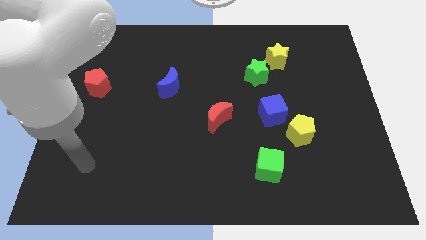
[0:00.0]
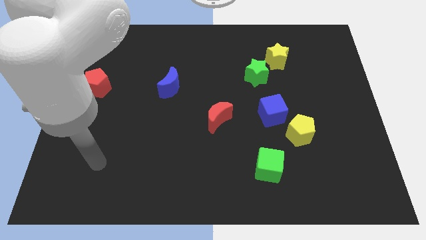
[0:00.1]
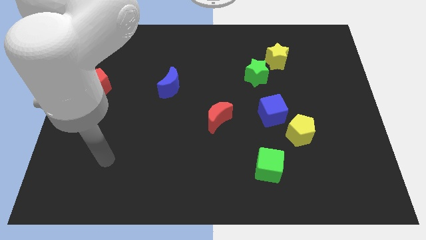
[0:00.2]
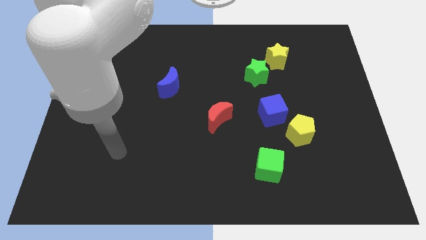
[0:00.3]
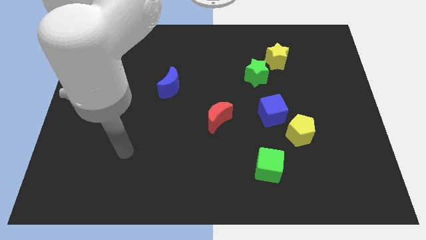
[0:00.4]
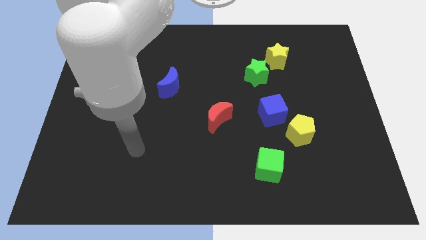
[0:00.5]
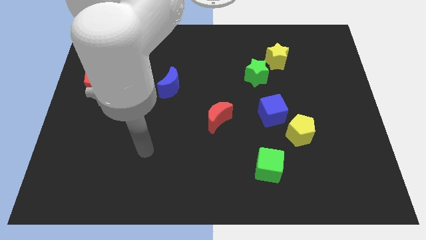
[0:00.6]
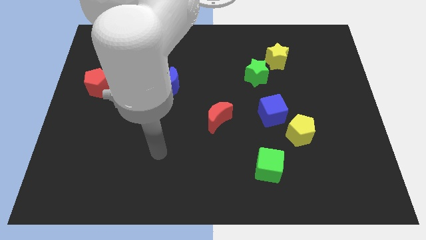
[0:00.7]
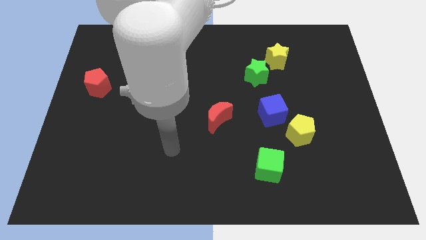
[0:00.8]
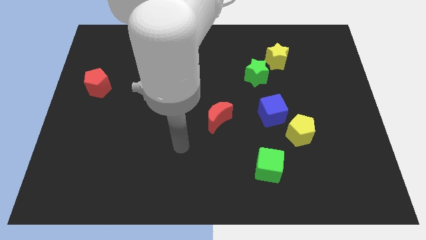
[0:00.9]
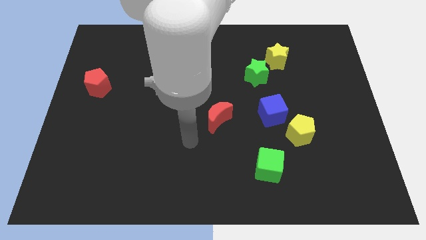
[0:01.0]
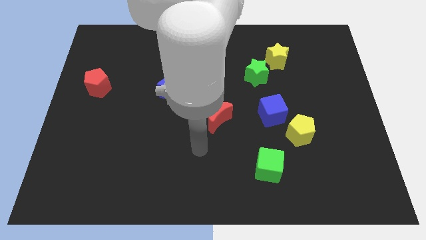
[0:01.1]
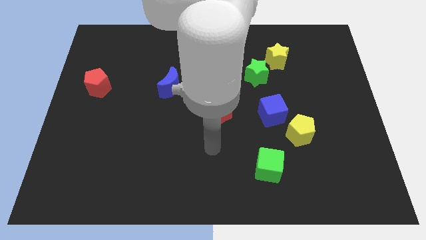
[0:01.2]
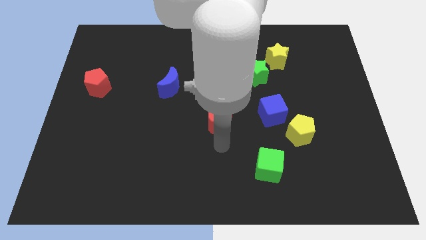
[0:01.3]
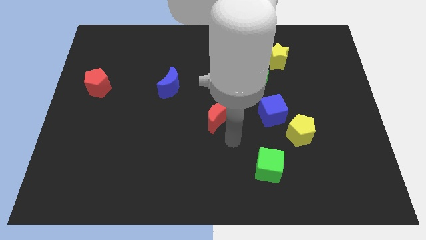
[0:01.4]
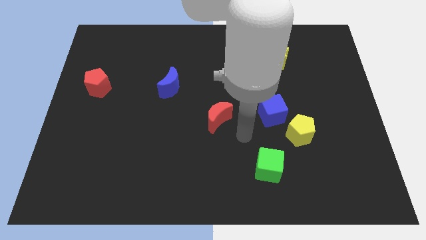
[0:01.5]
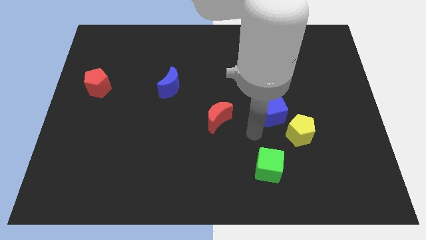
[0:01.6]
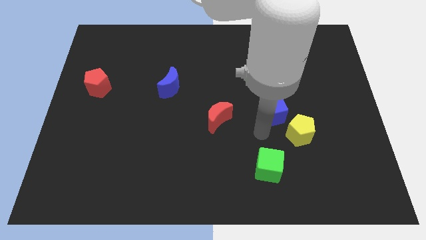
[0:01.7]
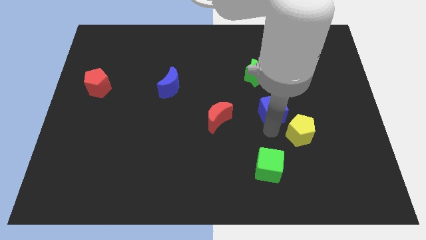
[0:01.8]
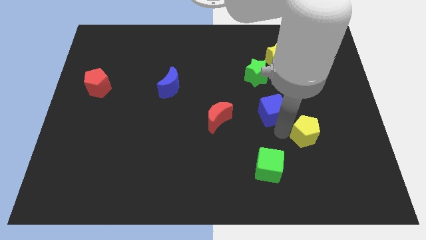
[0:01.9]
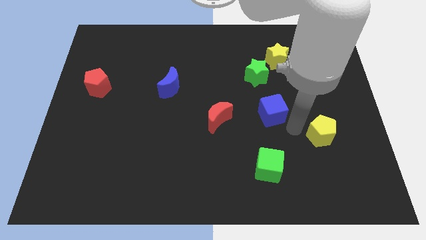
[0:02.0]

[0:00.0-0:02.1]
move the blue cube away from the yellow pentagon

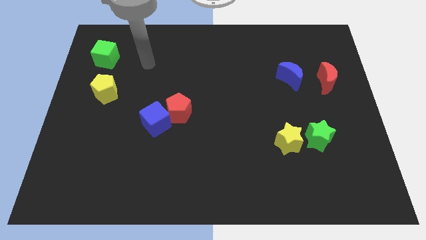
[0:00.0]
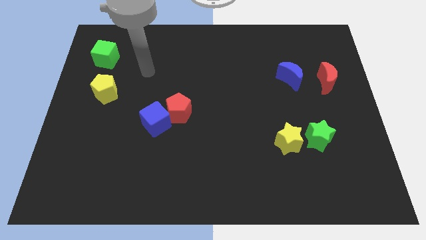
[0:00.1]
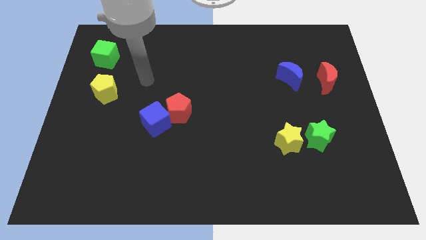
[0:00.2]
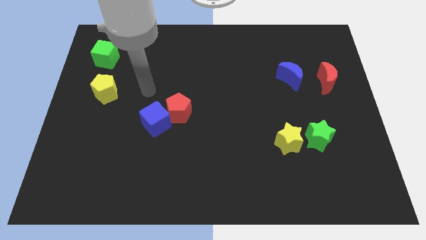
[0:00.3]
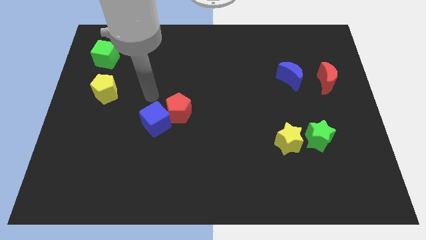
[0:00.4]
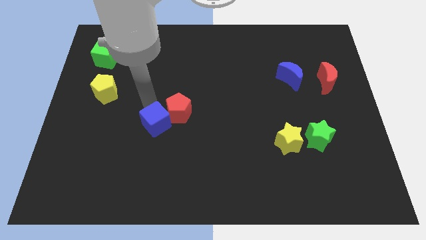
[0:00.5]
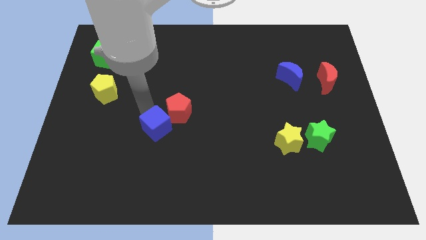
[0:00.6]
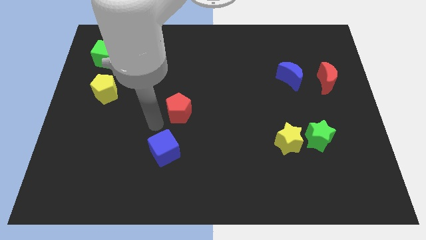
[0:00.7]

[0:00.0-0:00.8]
separate the red pentagon from the blue cube

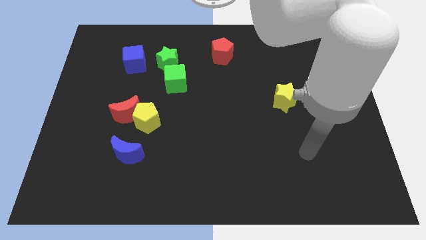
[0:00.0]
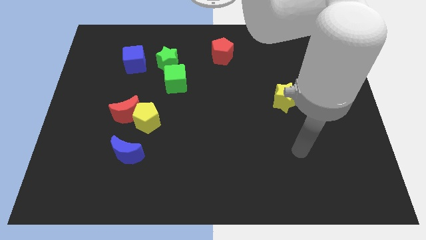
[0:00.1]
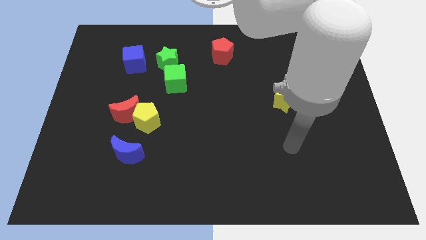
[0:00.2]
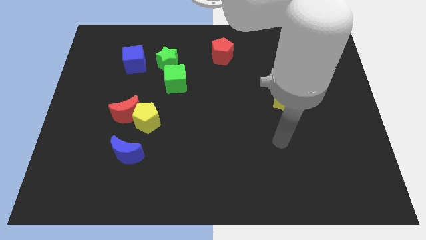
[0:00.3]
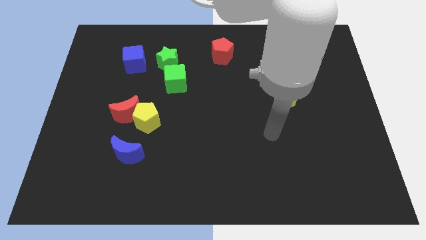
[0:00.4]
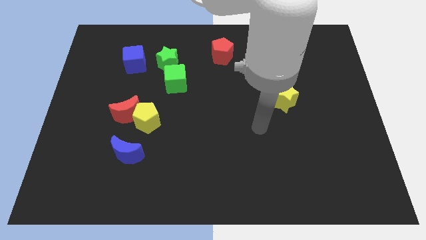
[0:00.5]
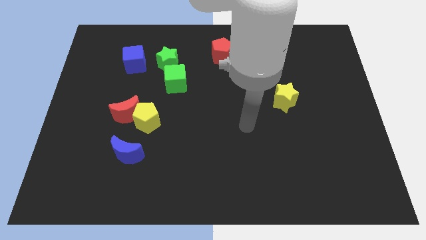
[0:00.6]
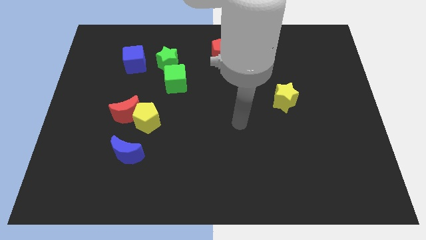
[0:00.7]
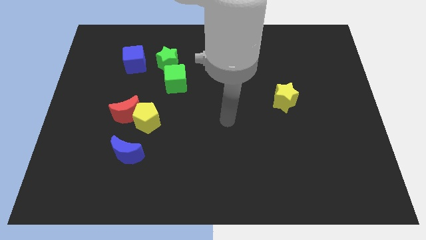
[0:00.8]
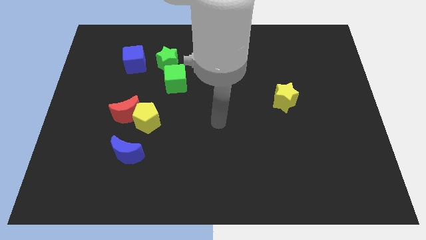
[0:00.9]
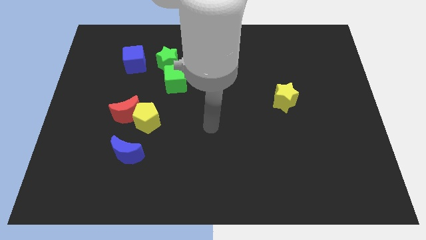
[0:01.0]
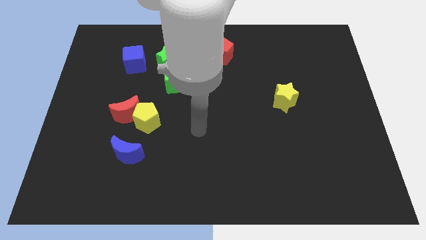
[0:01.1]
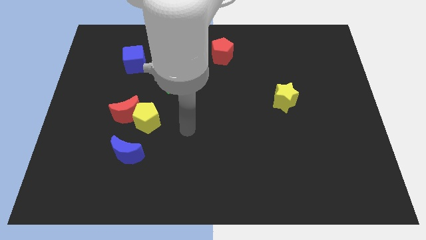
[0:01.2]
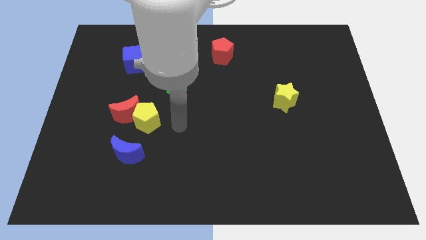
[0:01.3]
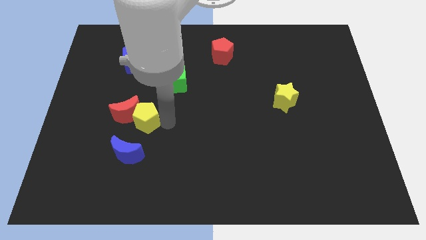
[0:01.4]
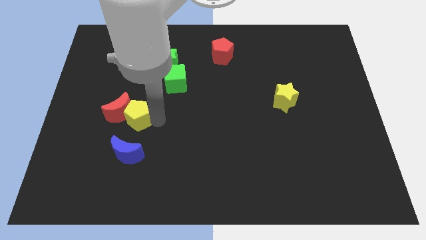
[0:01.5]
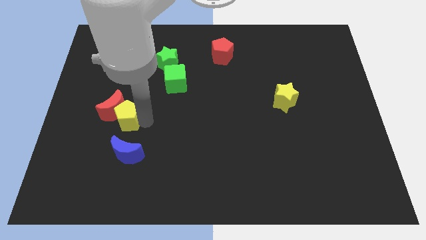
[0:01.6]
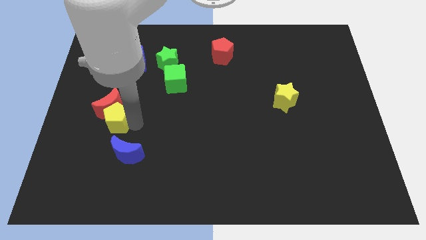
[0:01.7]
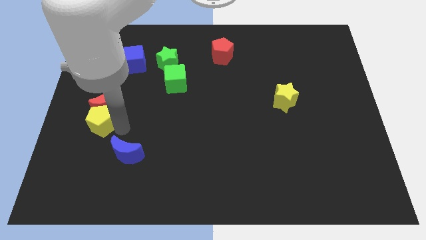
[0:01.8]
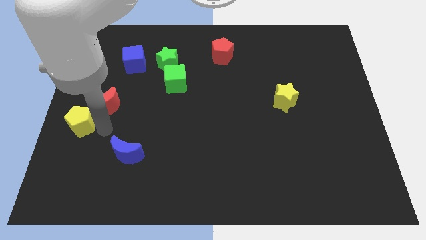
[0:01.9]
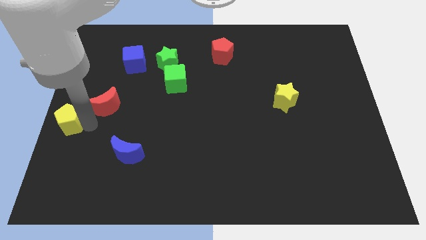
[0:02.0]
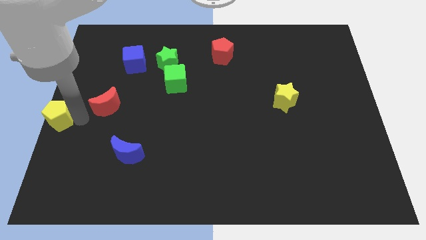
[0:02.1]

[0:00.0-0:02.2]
pull the red moon apart from the yellow pentagon

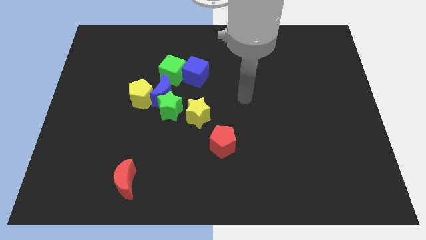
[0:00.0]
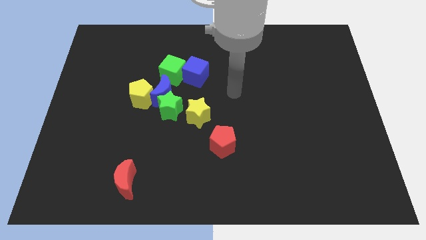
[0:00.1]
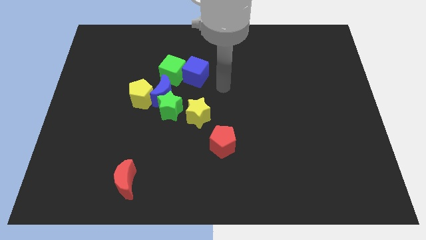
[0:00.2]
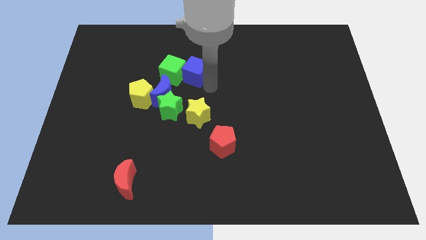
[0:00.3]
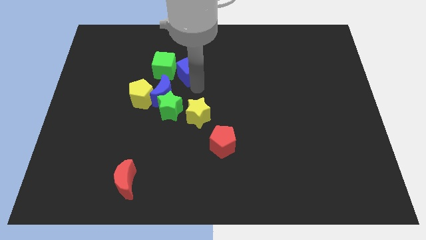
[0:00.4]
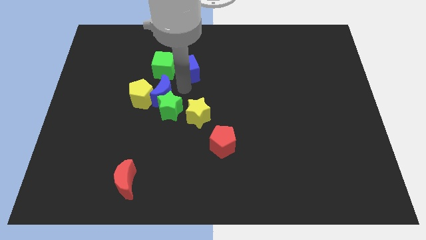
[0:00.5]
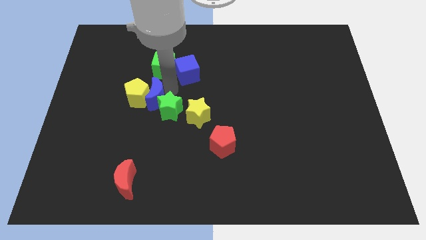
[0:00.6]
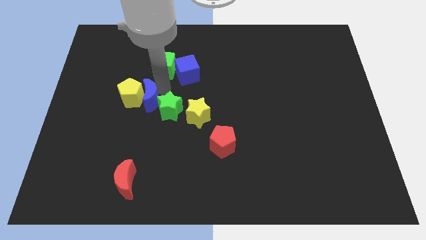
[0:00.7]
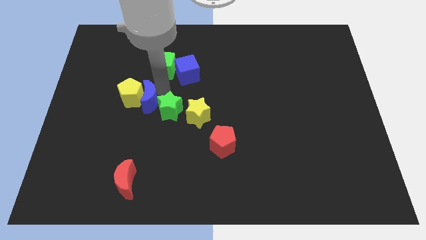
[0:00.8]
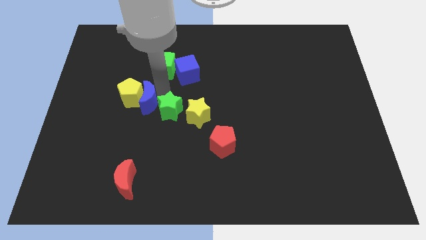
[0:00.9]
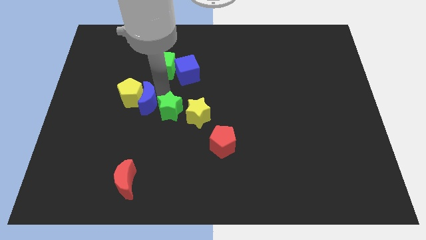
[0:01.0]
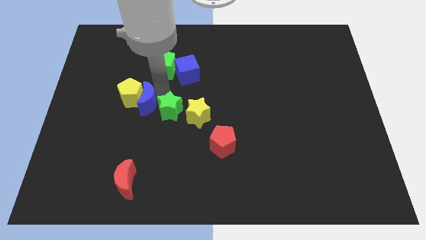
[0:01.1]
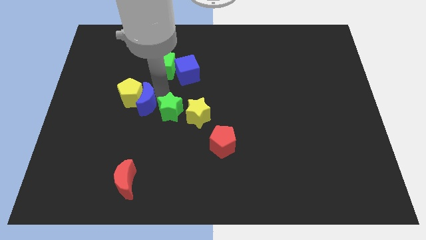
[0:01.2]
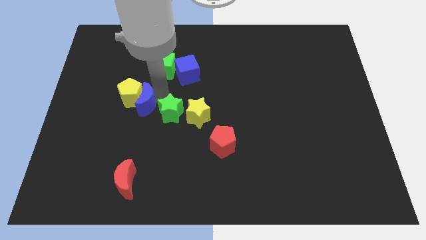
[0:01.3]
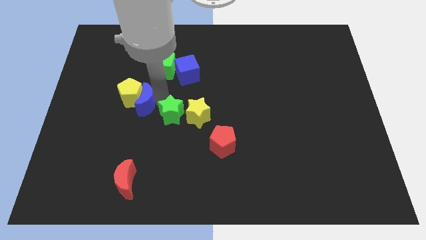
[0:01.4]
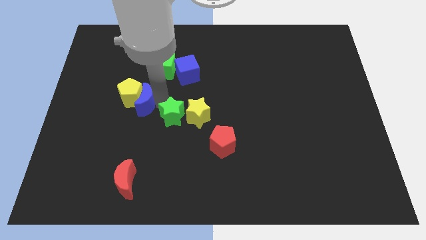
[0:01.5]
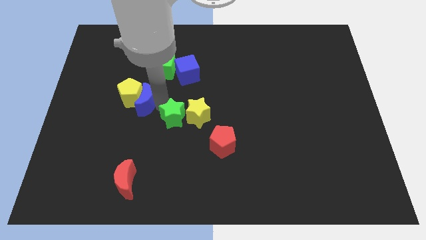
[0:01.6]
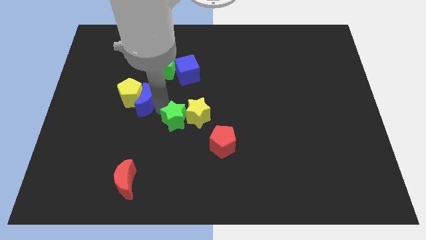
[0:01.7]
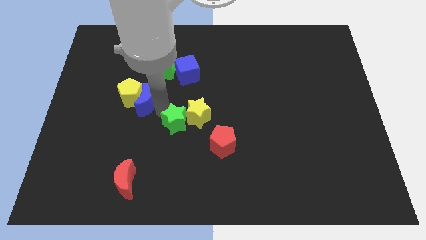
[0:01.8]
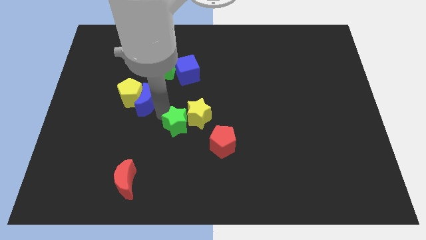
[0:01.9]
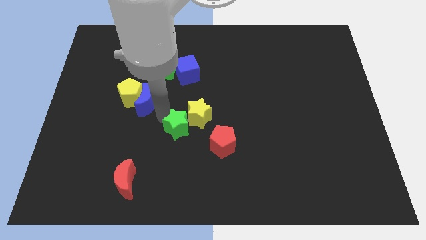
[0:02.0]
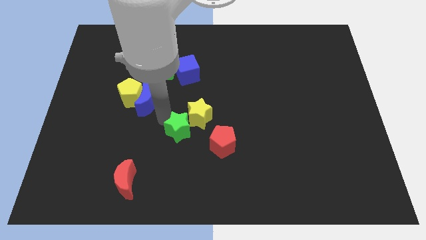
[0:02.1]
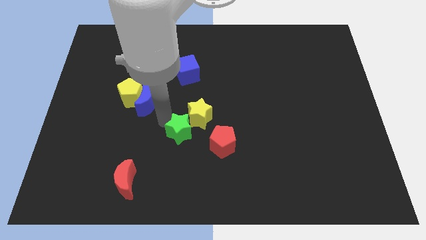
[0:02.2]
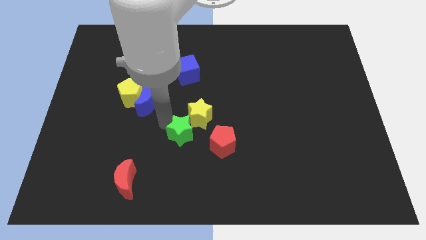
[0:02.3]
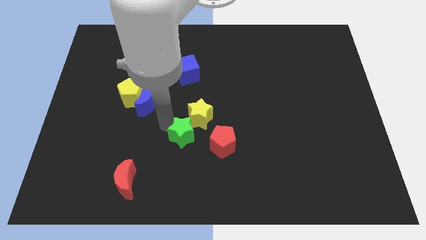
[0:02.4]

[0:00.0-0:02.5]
pull the green star apart from the blue moon, yellow star, and yellow pentagon

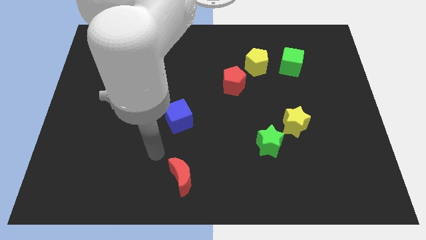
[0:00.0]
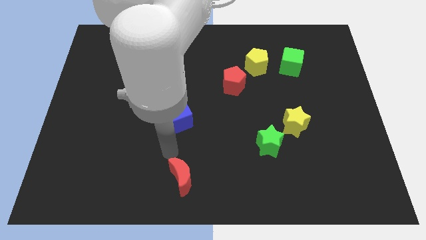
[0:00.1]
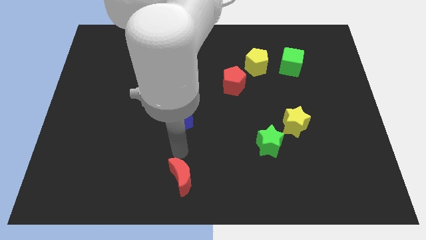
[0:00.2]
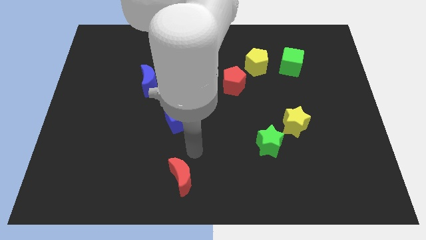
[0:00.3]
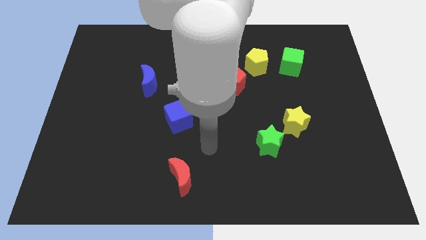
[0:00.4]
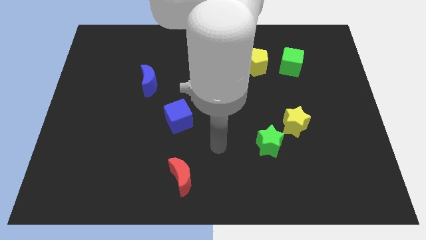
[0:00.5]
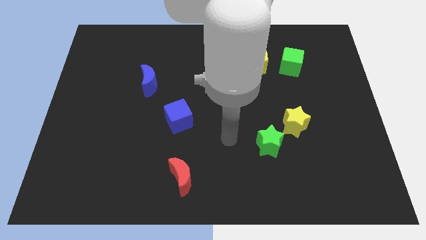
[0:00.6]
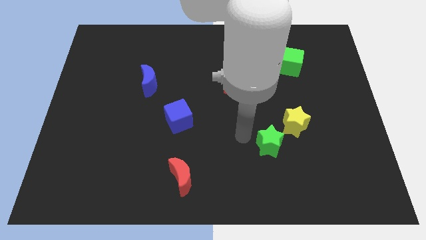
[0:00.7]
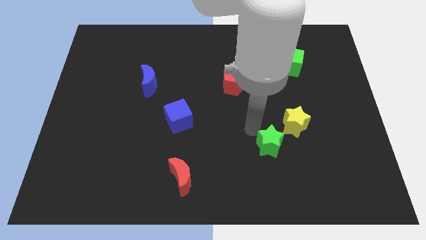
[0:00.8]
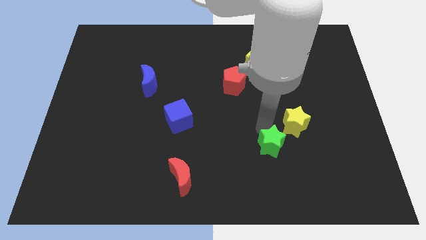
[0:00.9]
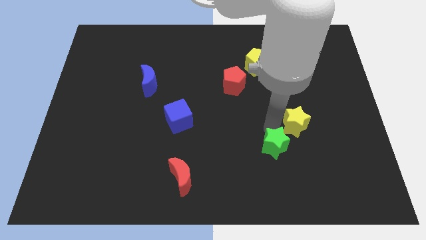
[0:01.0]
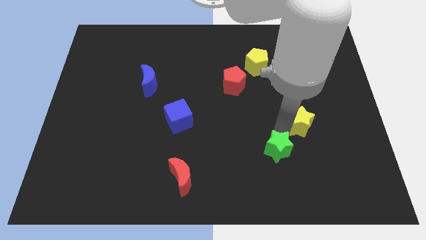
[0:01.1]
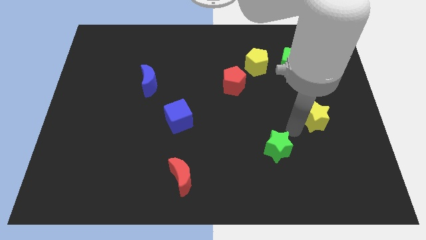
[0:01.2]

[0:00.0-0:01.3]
separate the green star from the yellow star

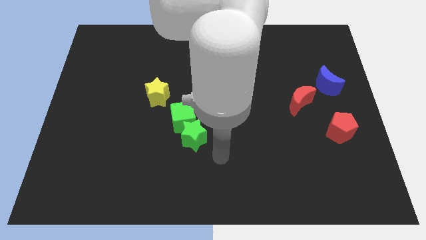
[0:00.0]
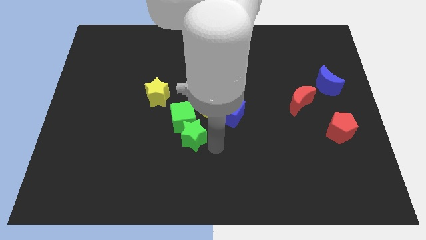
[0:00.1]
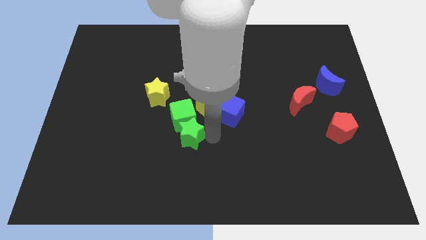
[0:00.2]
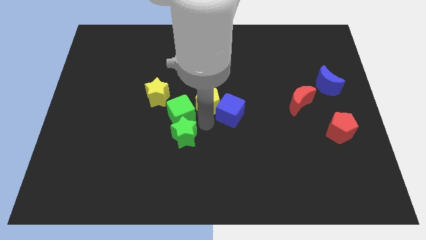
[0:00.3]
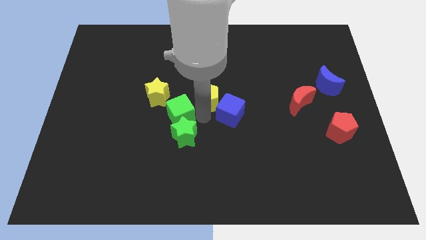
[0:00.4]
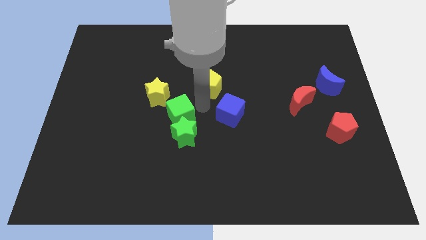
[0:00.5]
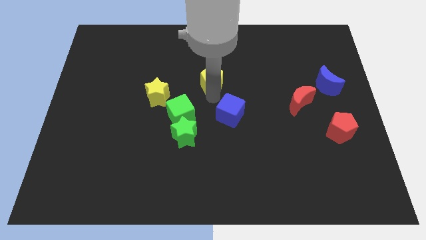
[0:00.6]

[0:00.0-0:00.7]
pull the blue cube apart from the yellow pentagon
